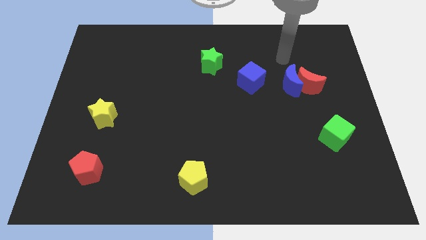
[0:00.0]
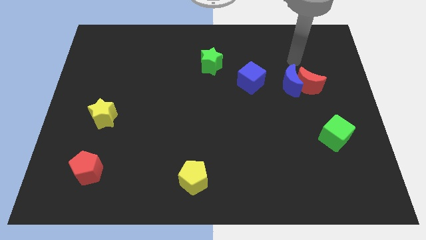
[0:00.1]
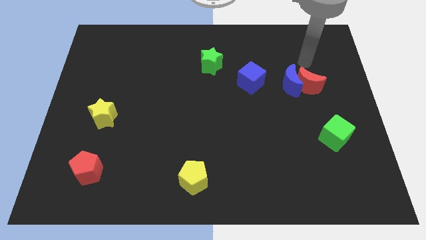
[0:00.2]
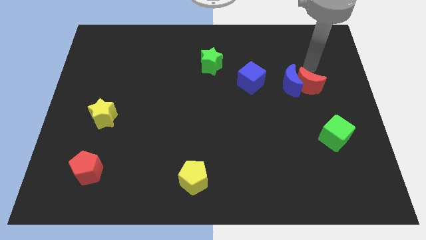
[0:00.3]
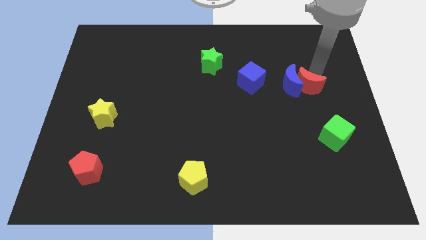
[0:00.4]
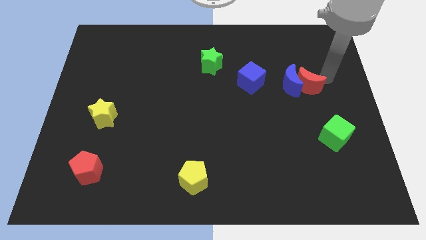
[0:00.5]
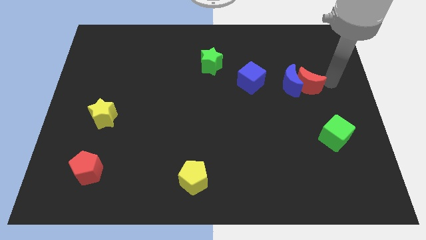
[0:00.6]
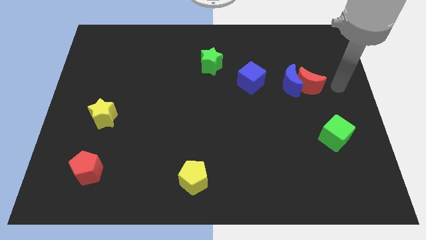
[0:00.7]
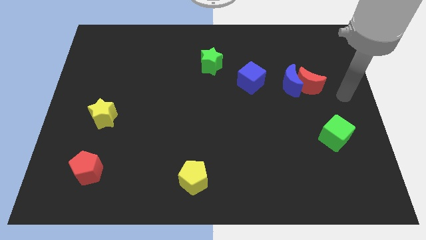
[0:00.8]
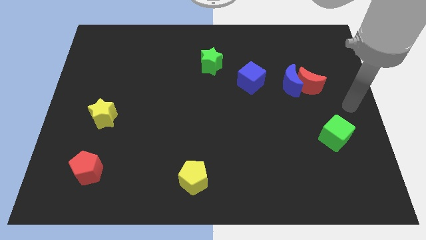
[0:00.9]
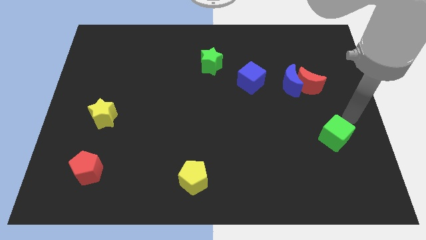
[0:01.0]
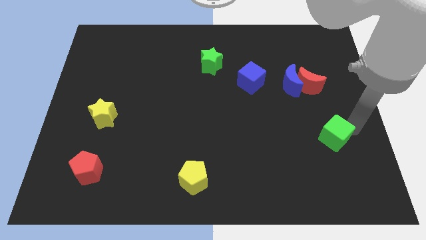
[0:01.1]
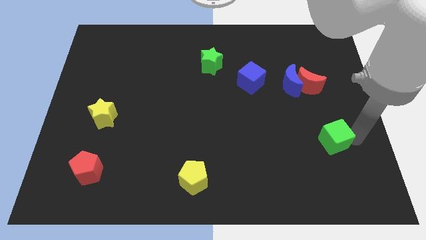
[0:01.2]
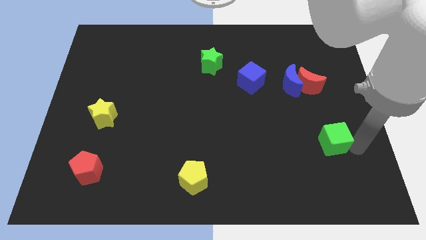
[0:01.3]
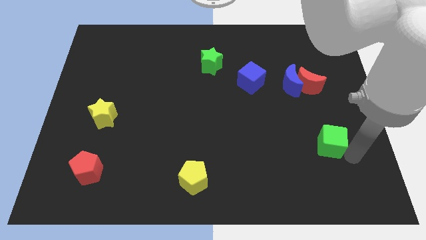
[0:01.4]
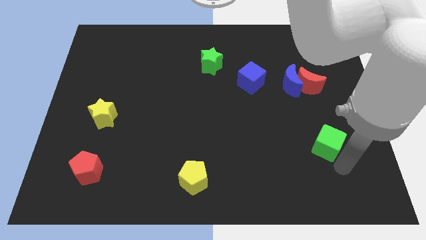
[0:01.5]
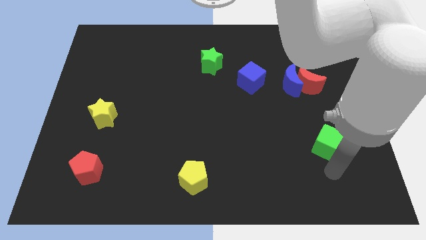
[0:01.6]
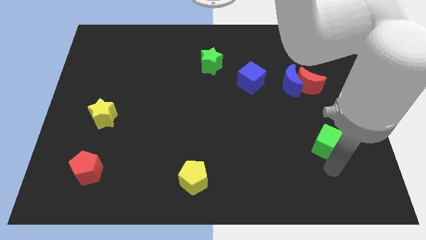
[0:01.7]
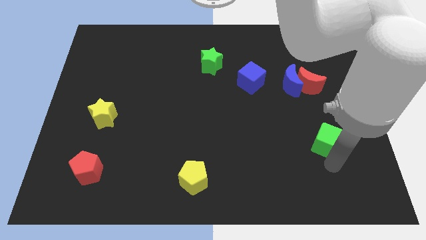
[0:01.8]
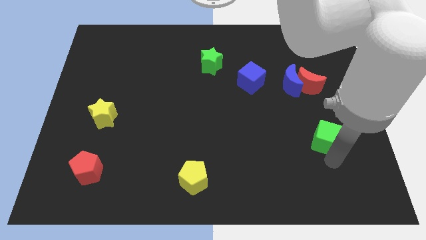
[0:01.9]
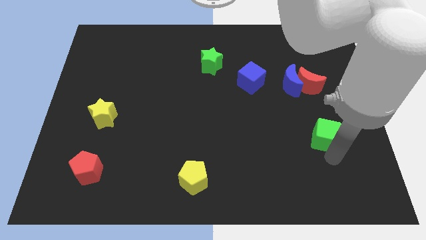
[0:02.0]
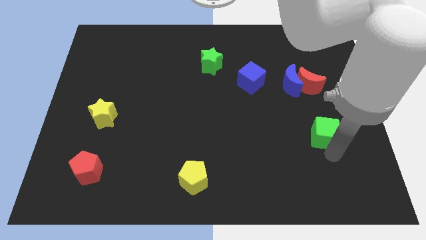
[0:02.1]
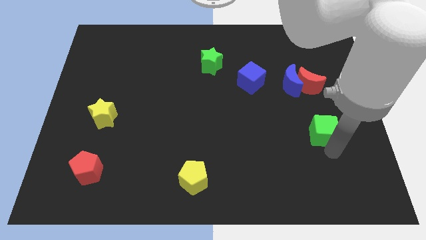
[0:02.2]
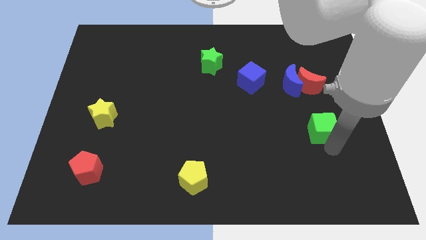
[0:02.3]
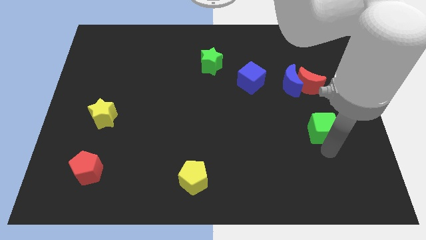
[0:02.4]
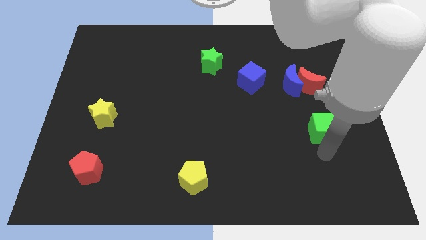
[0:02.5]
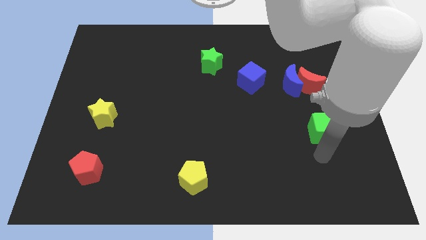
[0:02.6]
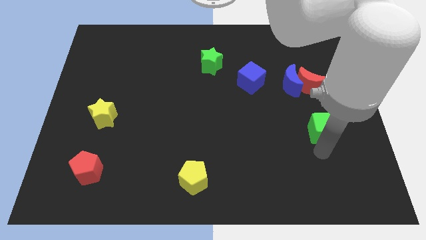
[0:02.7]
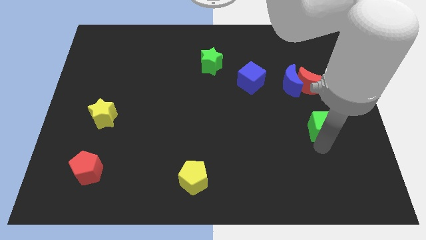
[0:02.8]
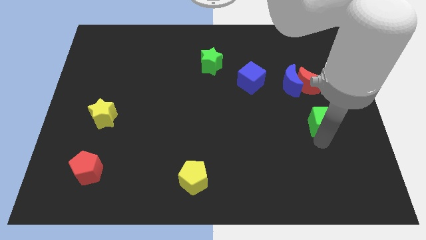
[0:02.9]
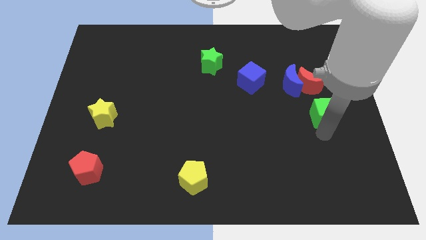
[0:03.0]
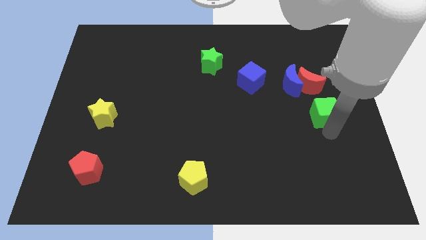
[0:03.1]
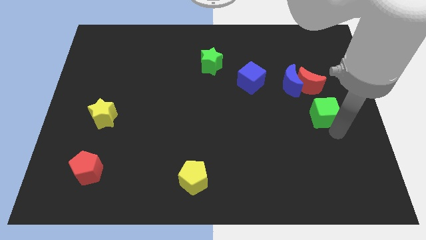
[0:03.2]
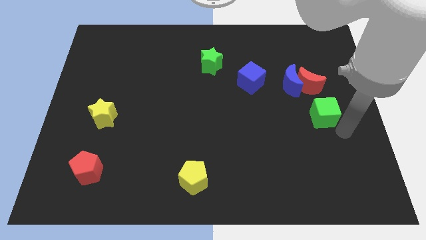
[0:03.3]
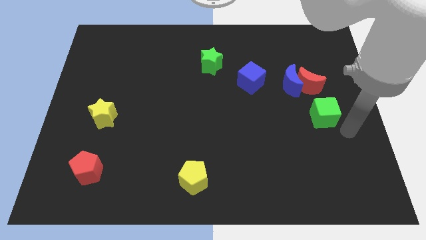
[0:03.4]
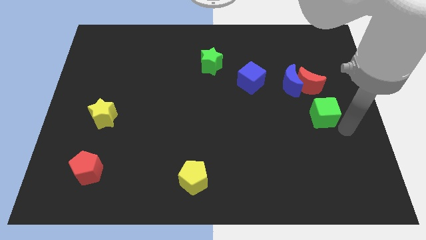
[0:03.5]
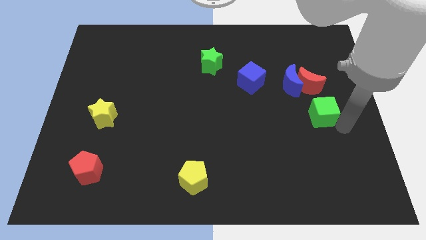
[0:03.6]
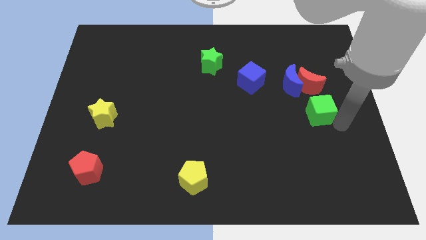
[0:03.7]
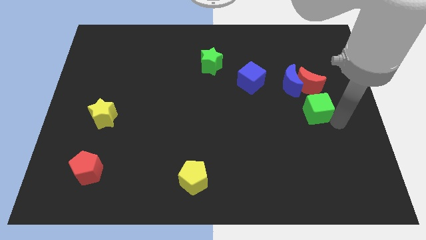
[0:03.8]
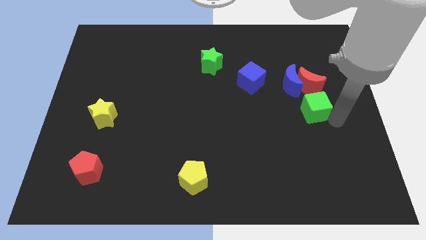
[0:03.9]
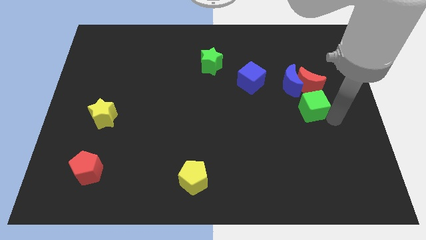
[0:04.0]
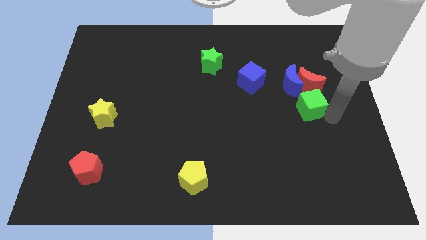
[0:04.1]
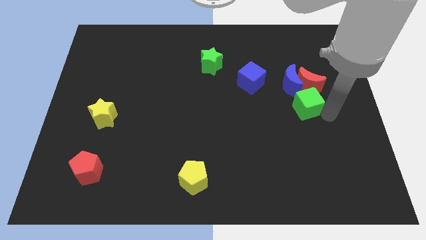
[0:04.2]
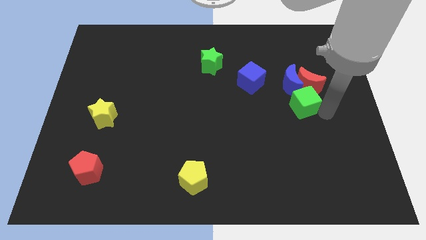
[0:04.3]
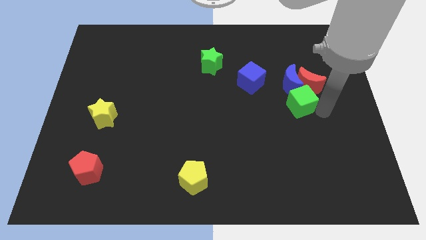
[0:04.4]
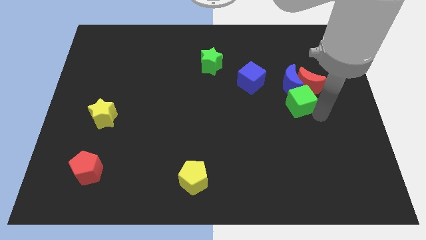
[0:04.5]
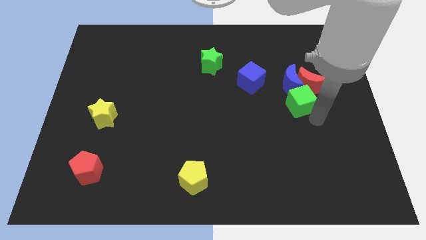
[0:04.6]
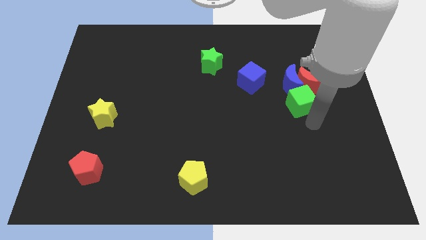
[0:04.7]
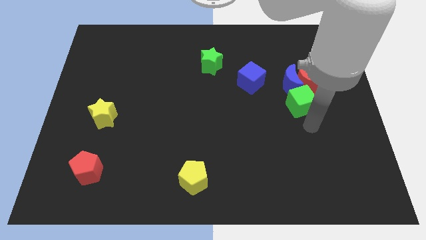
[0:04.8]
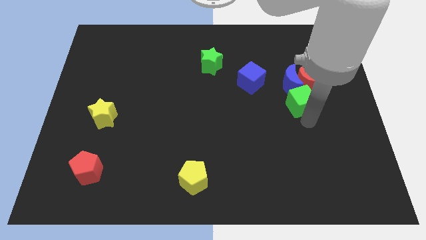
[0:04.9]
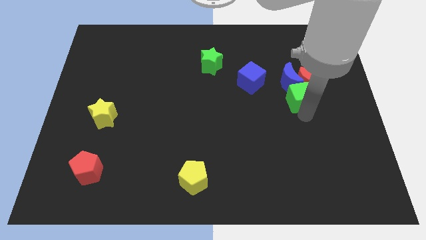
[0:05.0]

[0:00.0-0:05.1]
slide the green cube close to the blue moon

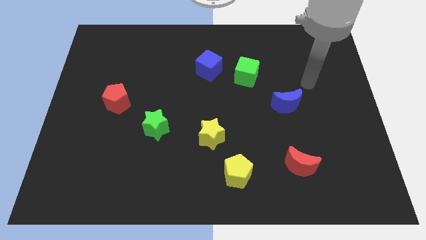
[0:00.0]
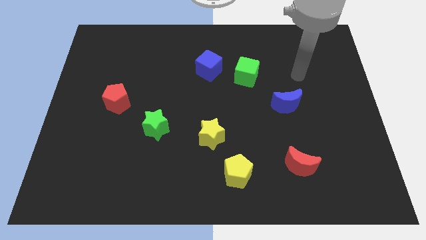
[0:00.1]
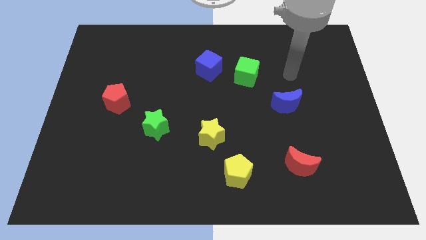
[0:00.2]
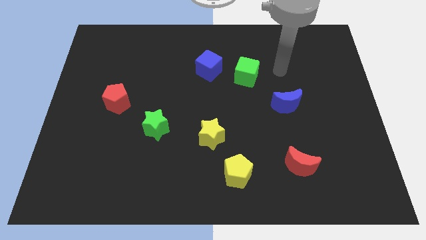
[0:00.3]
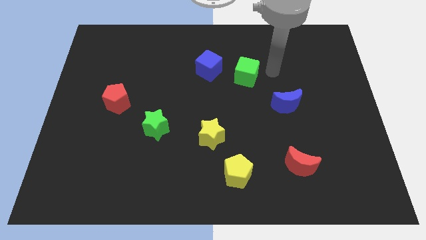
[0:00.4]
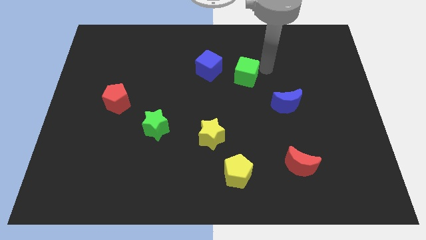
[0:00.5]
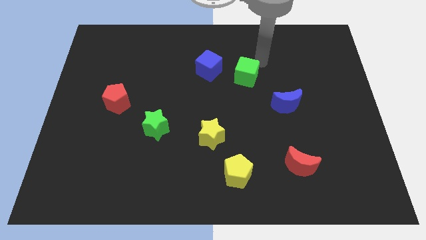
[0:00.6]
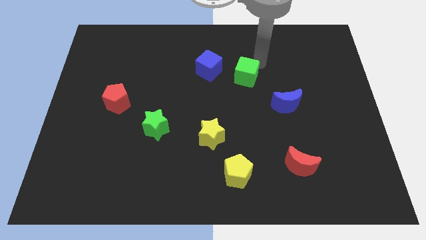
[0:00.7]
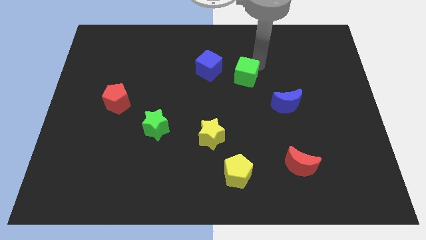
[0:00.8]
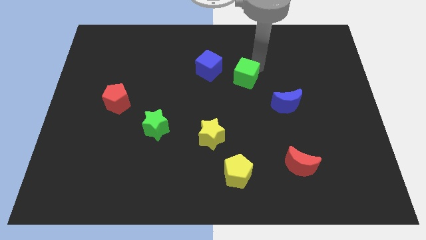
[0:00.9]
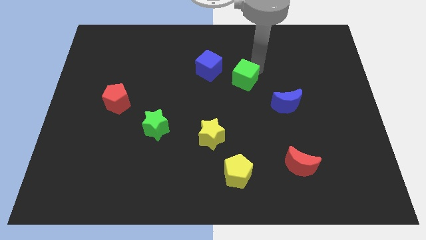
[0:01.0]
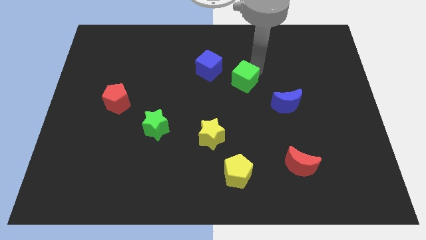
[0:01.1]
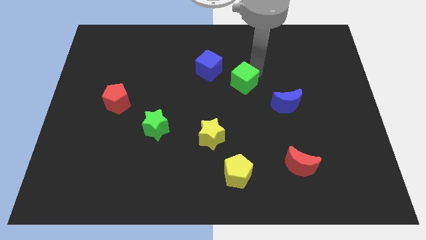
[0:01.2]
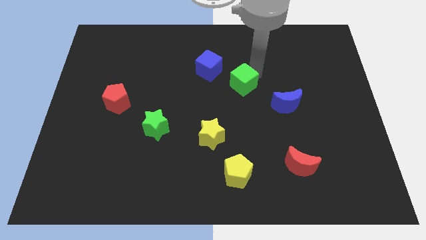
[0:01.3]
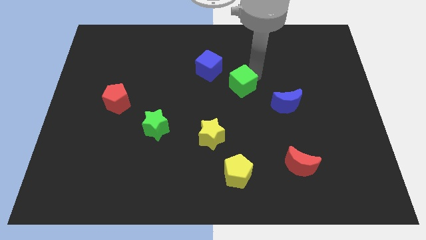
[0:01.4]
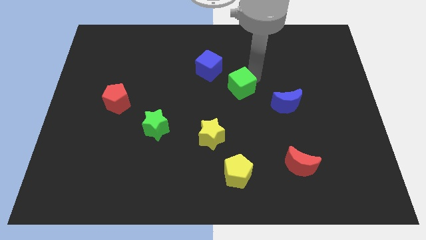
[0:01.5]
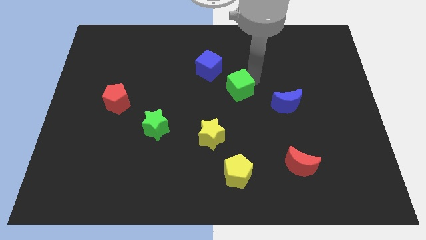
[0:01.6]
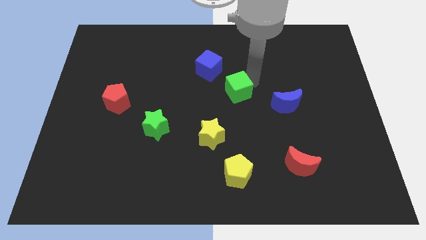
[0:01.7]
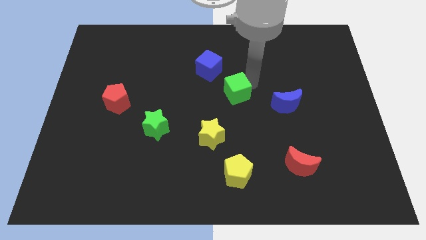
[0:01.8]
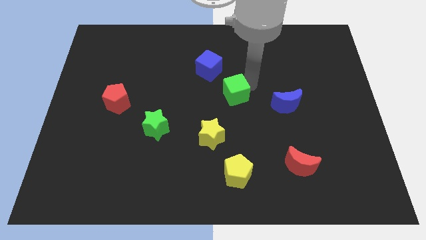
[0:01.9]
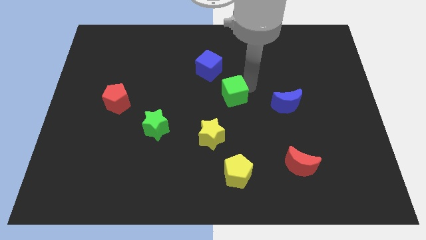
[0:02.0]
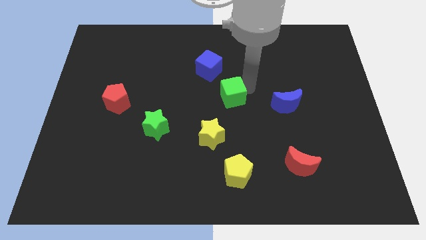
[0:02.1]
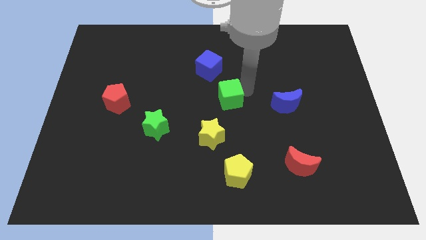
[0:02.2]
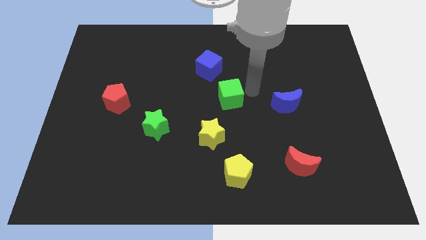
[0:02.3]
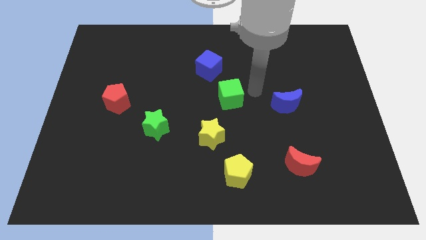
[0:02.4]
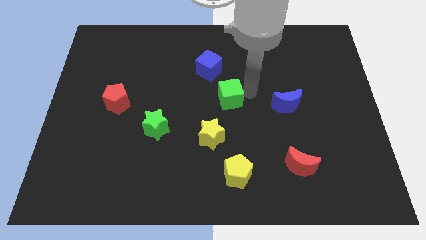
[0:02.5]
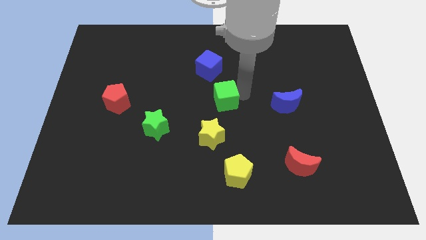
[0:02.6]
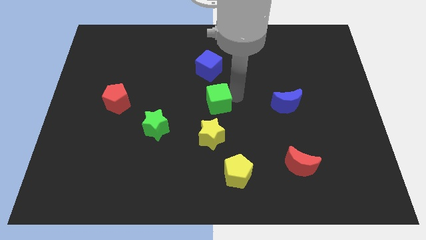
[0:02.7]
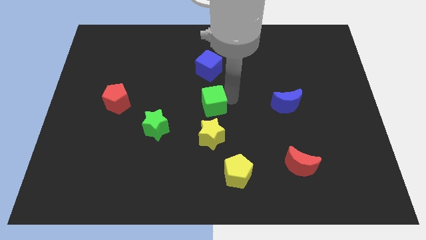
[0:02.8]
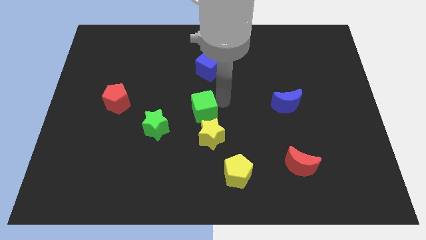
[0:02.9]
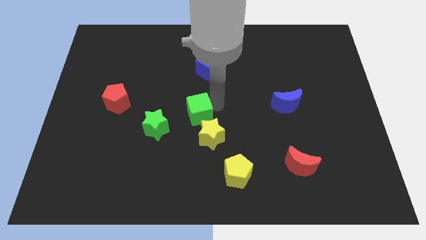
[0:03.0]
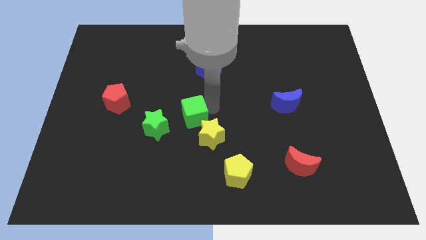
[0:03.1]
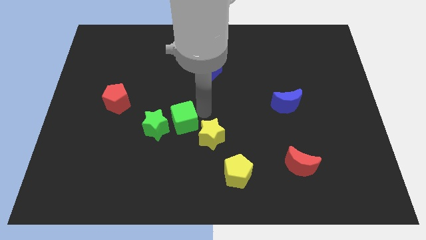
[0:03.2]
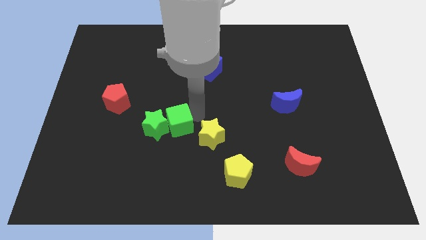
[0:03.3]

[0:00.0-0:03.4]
slide the green cube towards the green star
